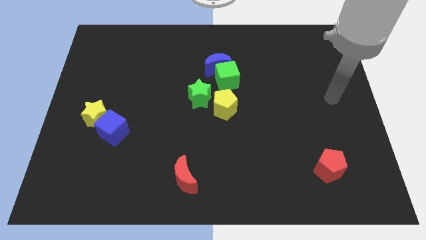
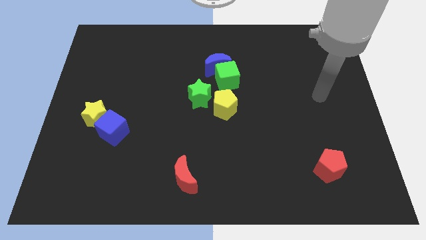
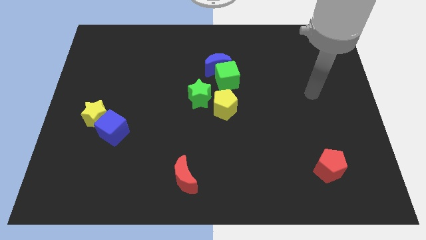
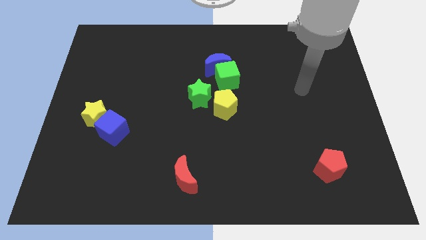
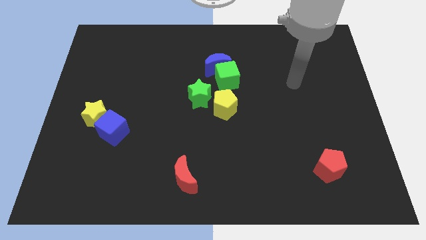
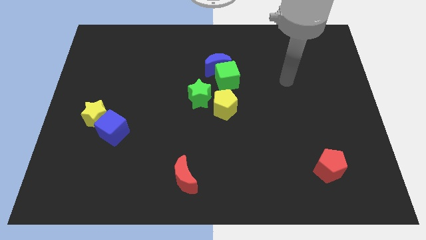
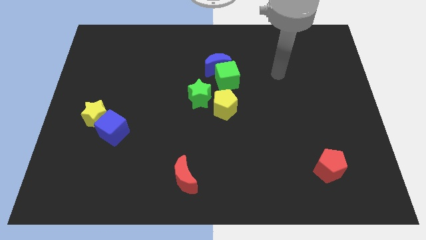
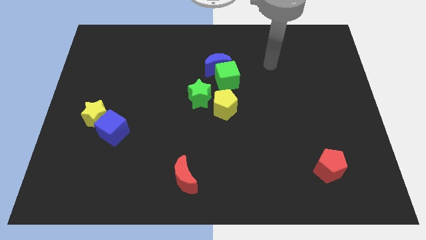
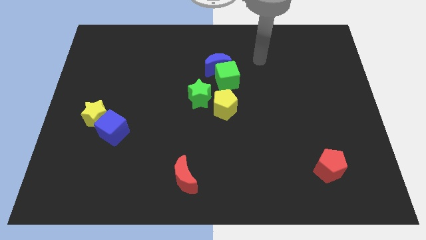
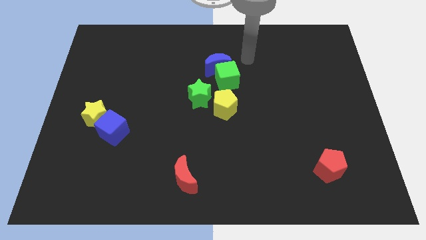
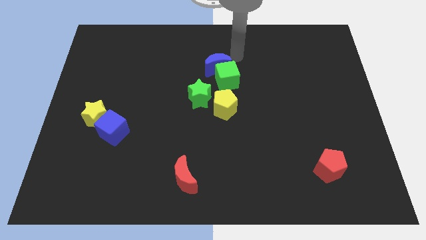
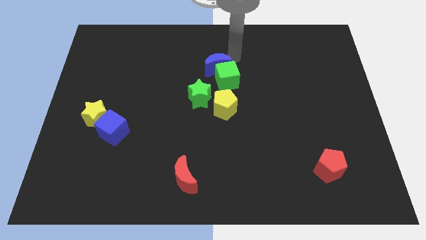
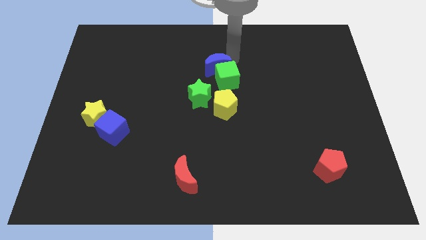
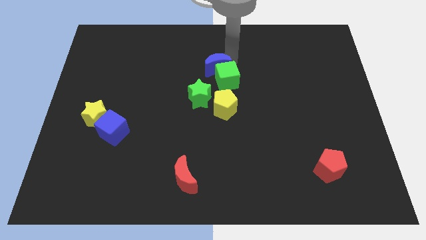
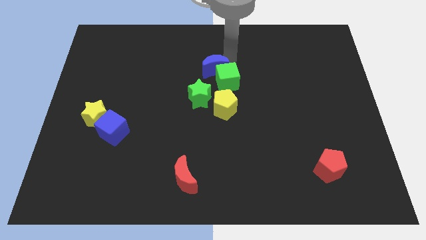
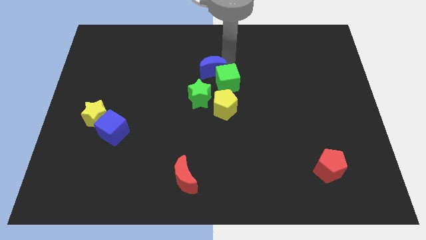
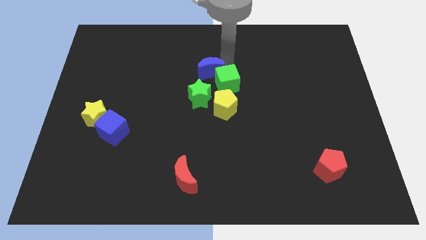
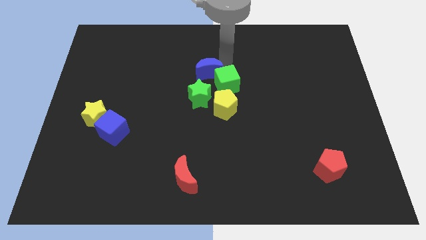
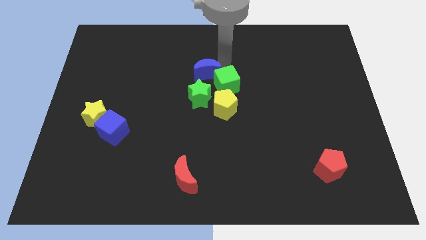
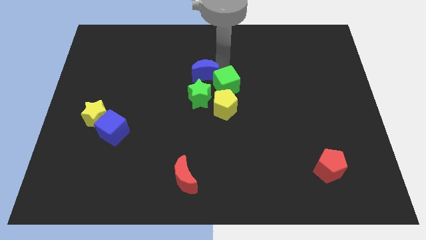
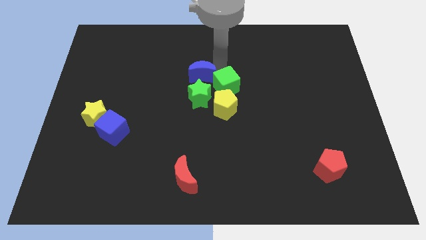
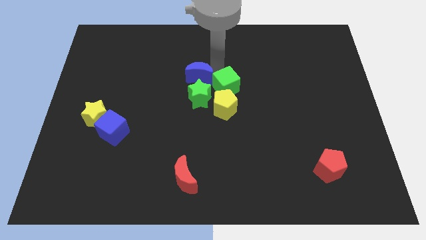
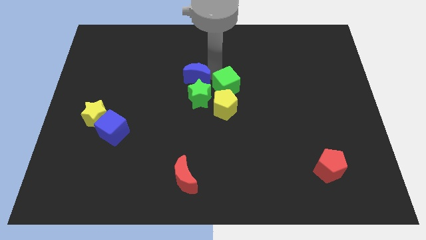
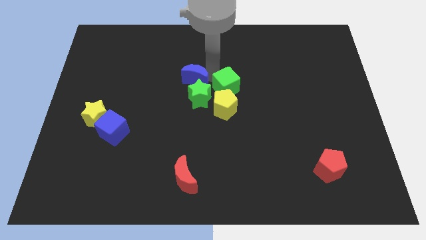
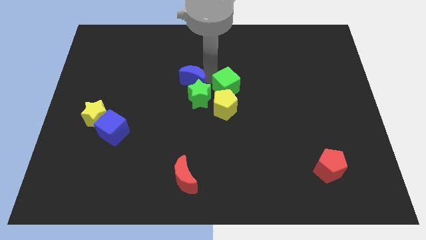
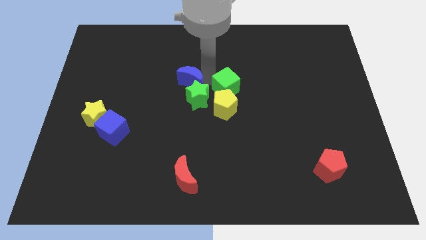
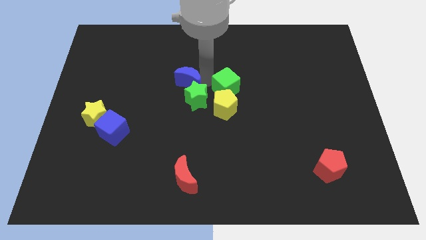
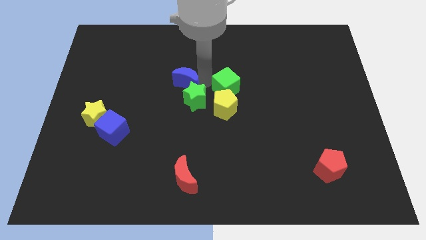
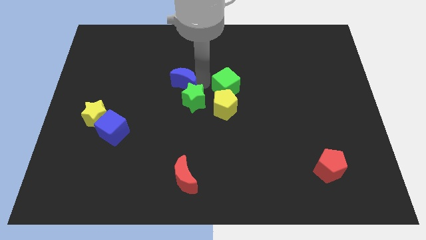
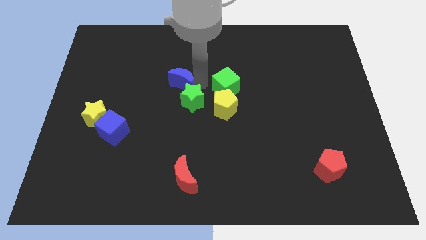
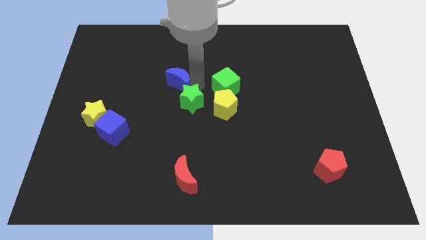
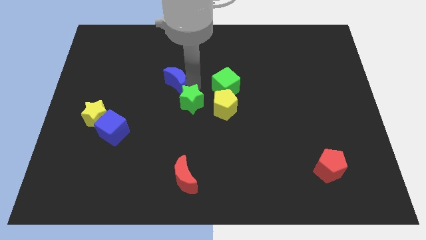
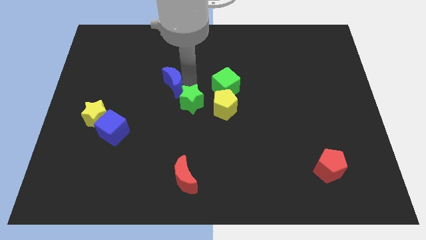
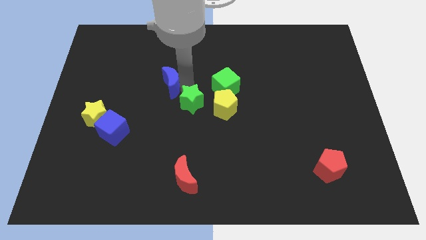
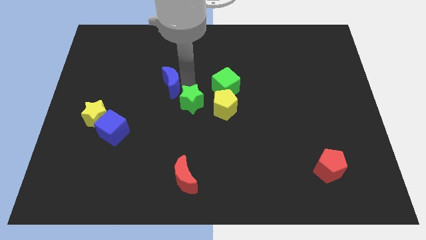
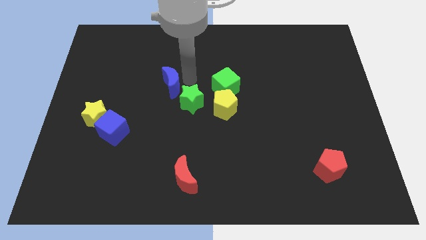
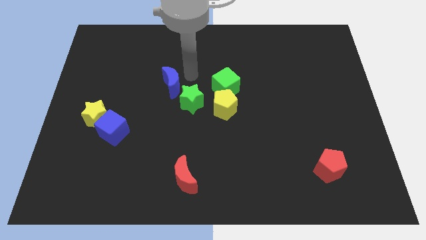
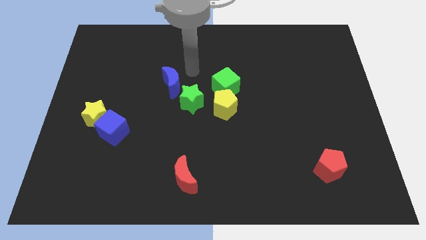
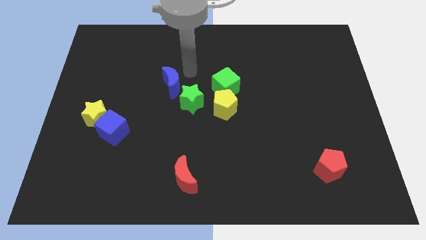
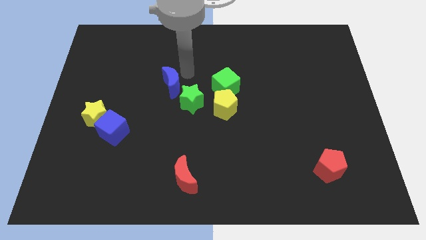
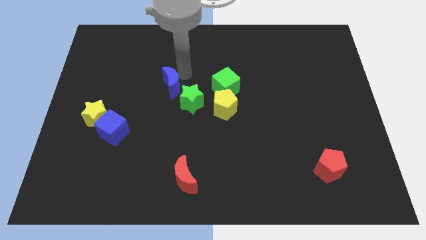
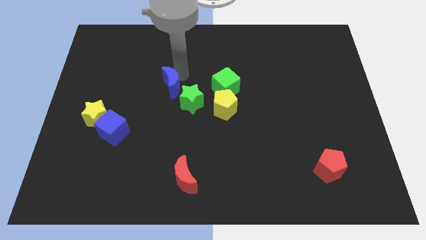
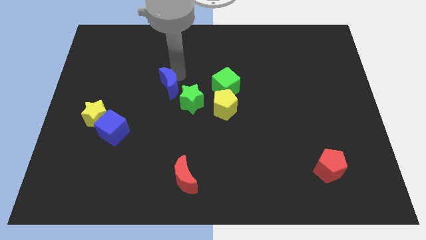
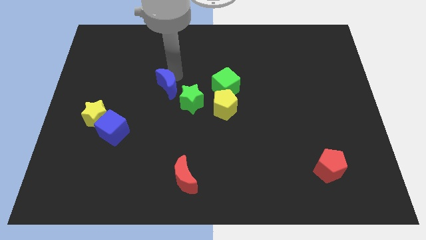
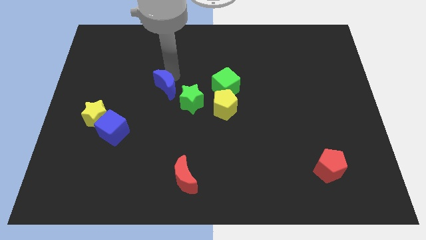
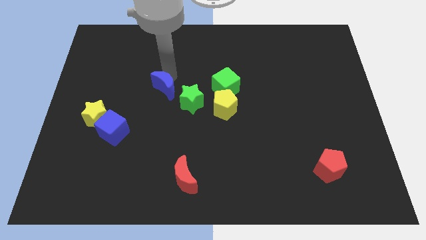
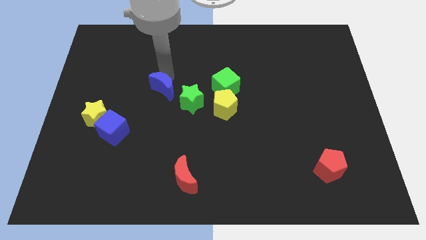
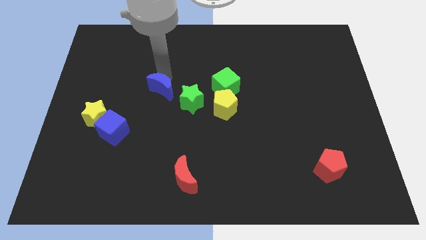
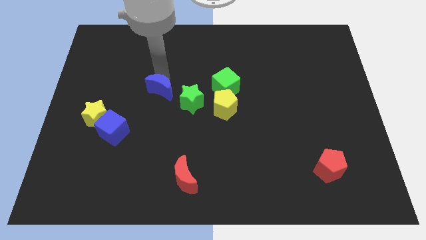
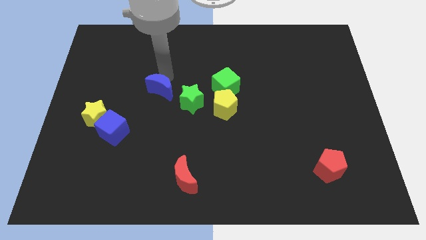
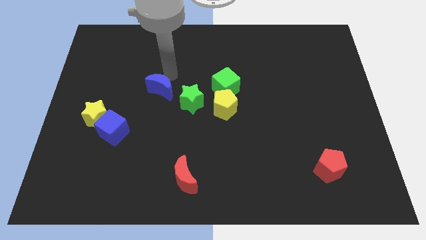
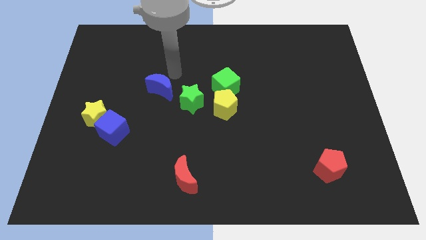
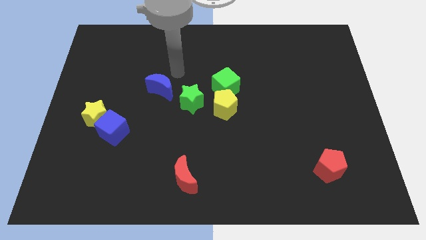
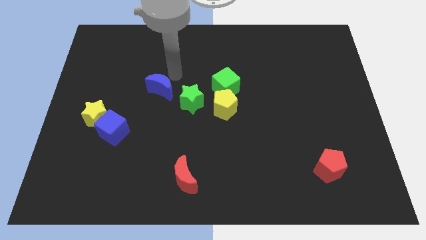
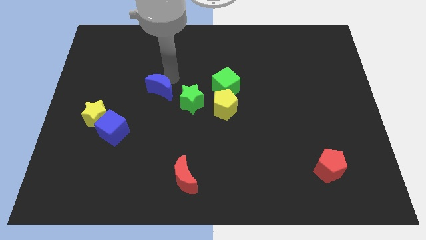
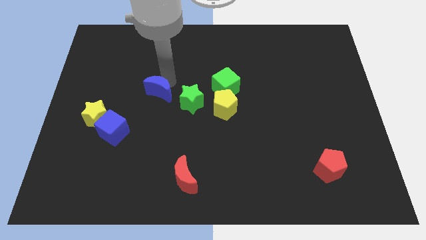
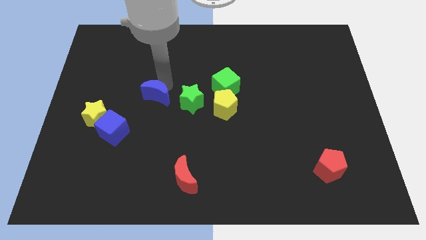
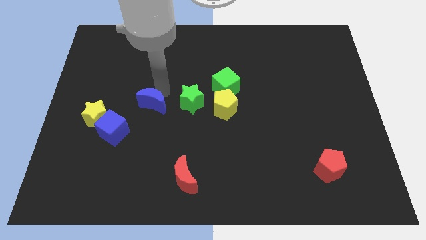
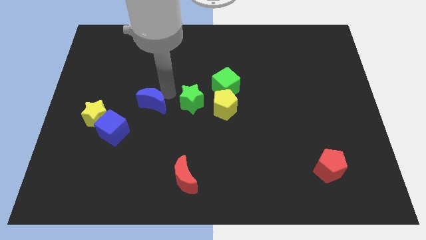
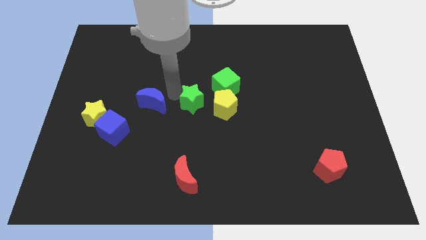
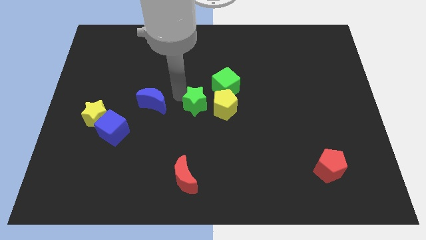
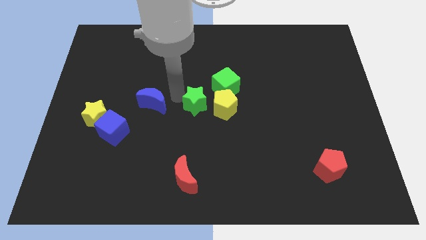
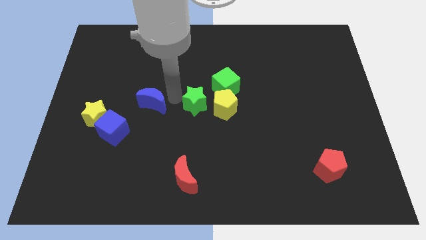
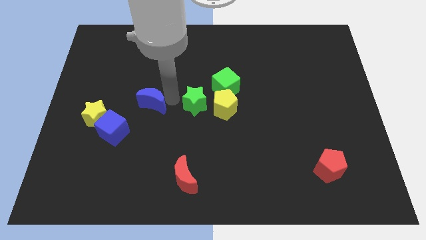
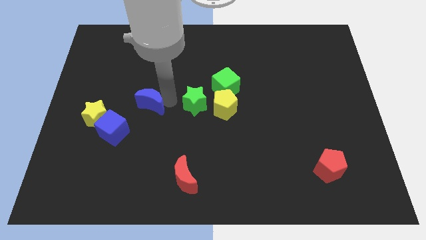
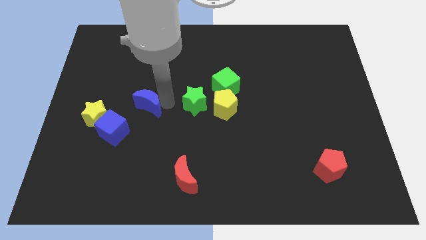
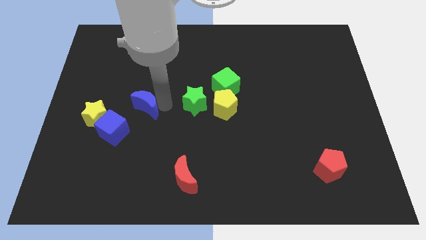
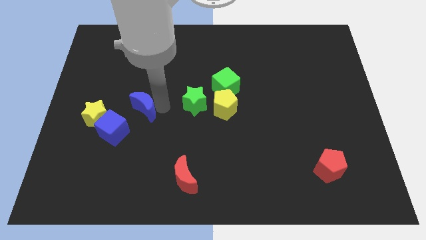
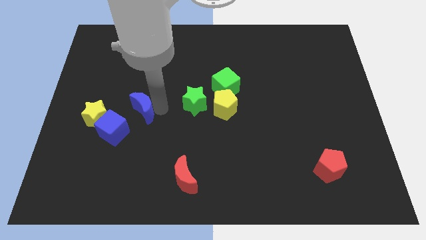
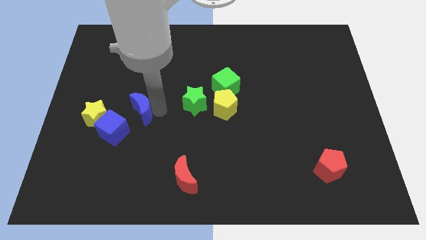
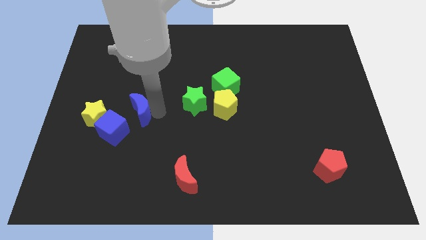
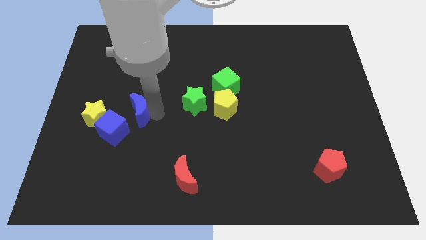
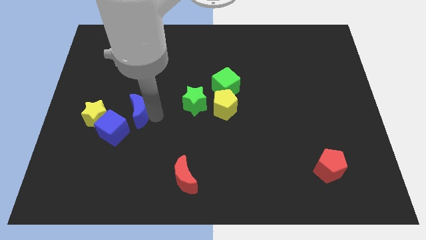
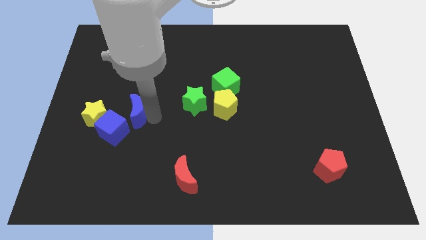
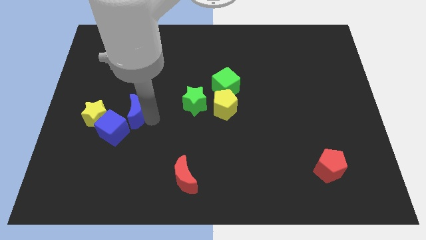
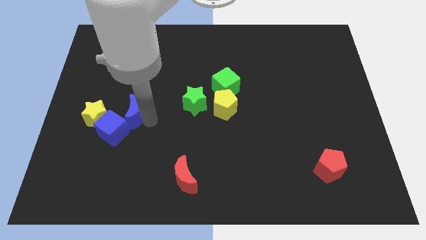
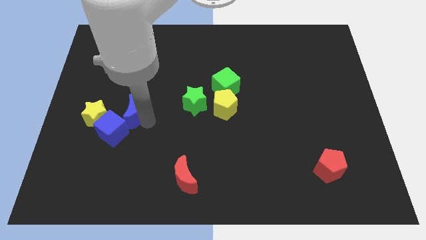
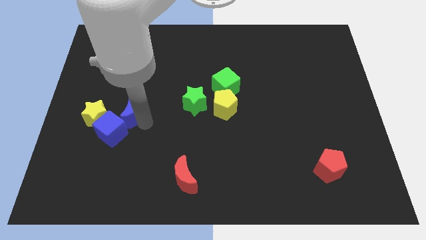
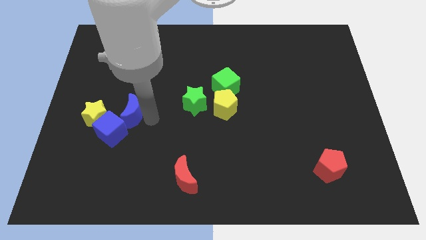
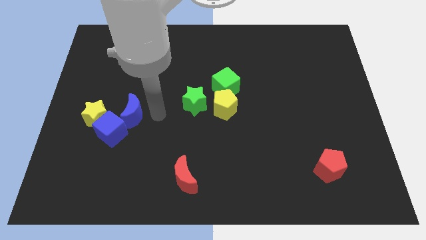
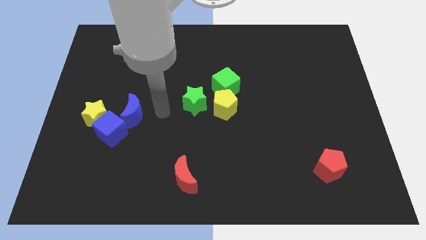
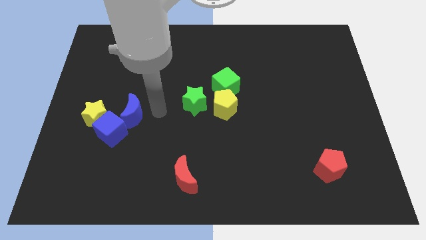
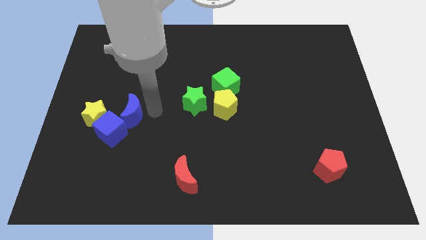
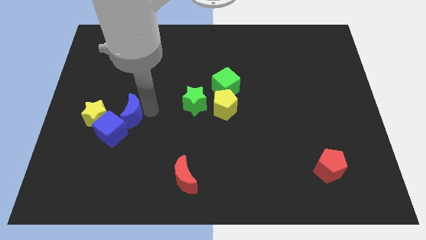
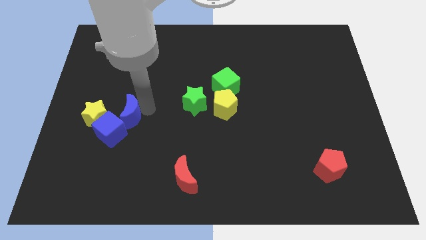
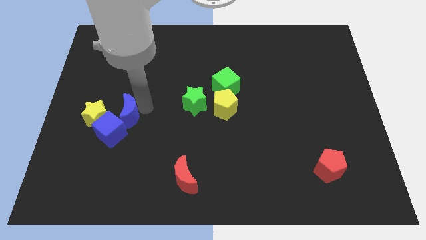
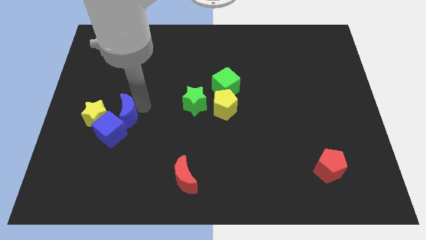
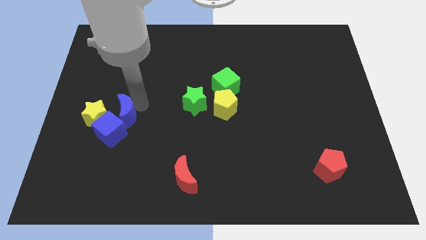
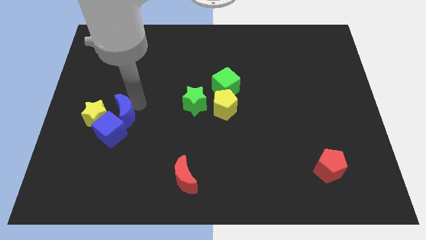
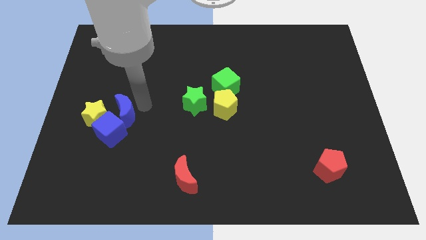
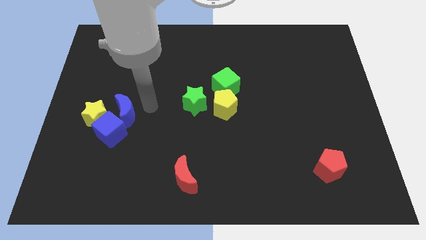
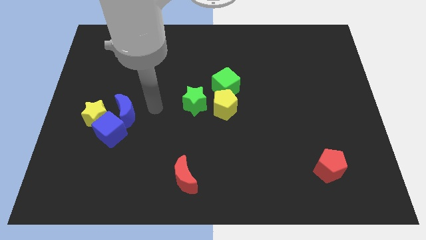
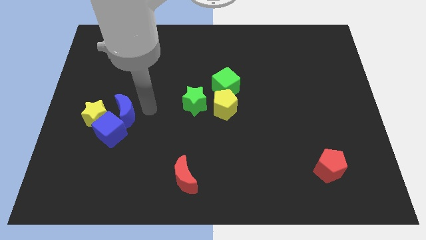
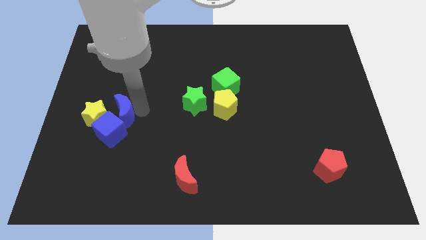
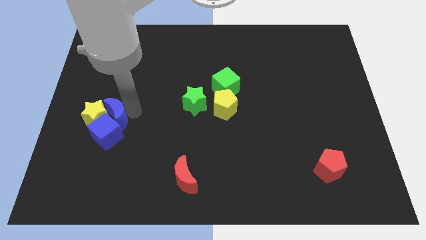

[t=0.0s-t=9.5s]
push the blue moon to the yellow star
